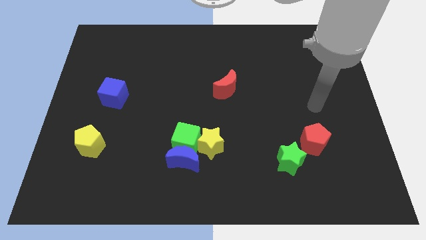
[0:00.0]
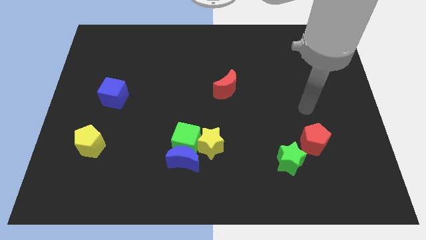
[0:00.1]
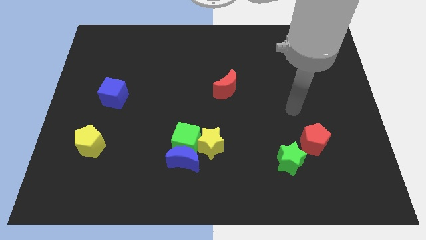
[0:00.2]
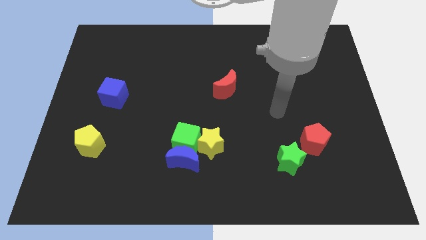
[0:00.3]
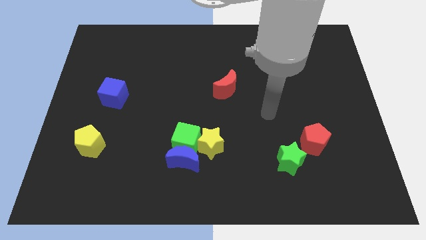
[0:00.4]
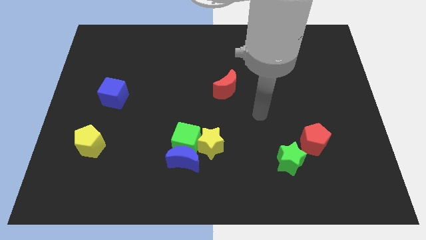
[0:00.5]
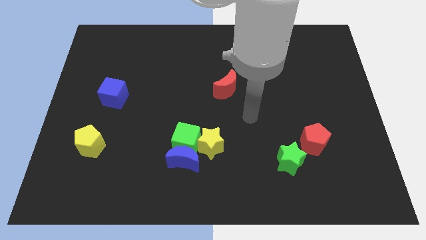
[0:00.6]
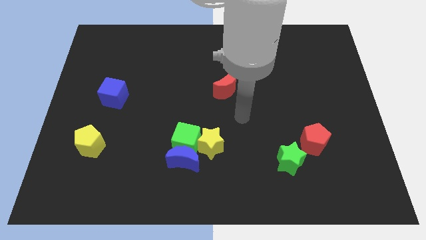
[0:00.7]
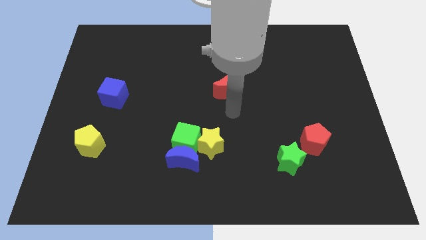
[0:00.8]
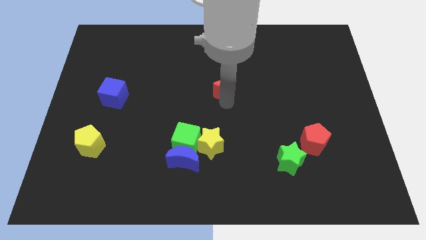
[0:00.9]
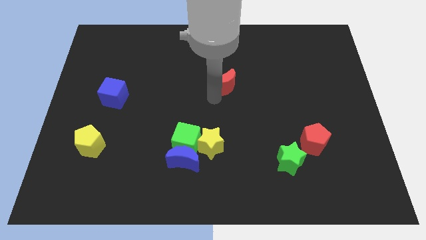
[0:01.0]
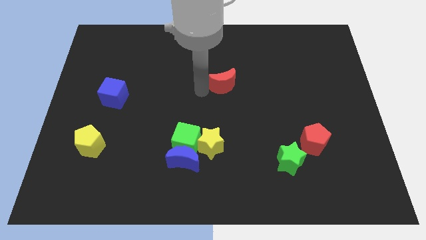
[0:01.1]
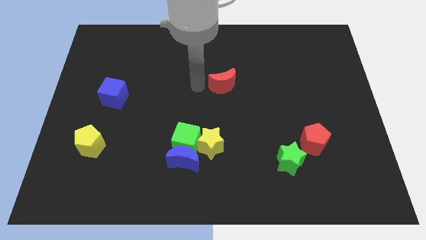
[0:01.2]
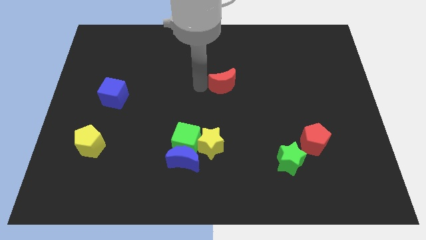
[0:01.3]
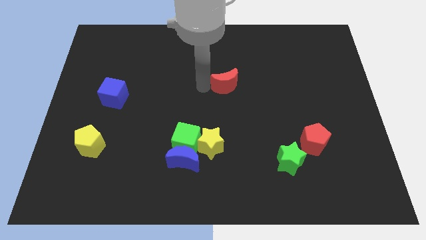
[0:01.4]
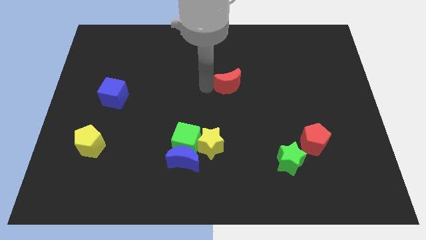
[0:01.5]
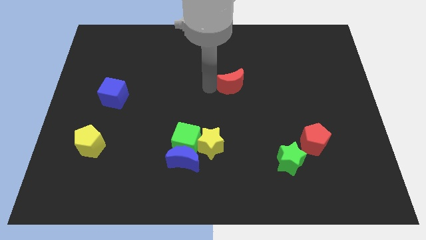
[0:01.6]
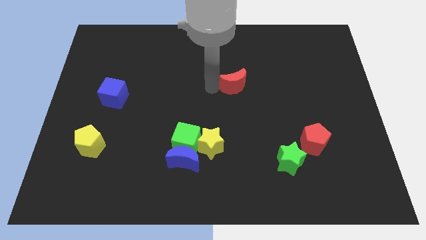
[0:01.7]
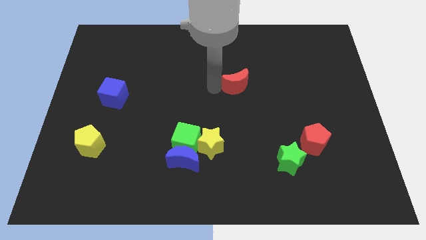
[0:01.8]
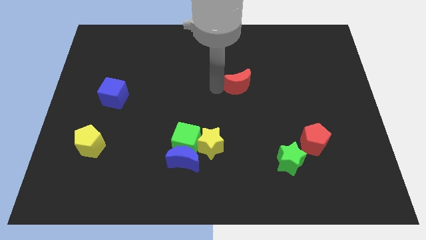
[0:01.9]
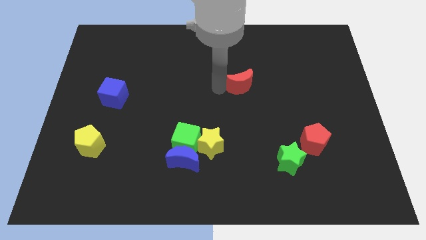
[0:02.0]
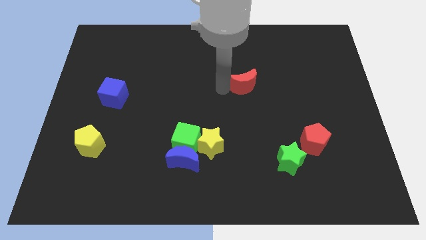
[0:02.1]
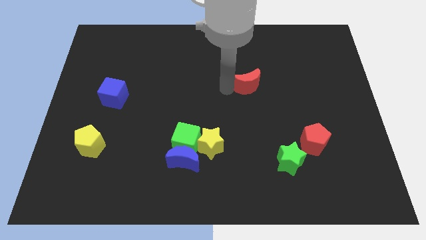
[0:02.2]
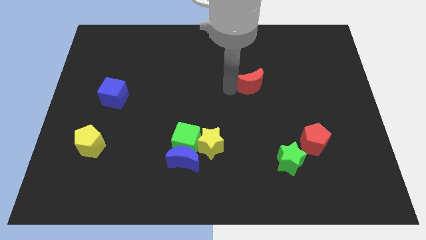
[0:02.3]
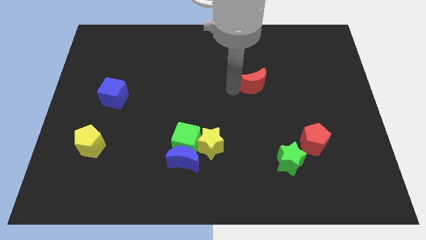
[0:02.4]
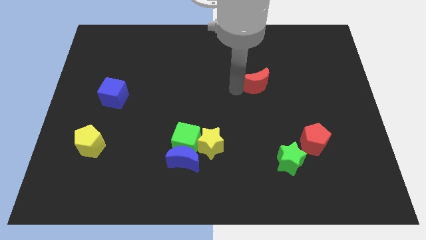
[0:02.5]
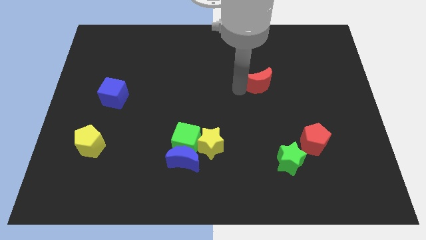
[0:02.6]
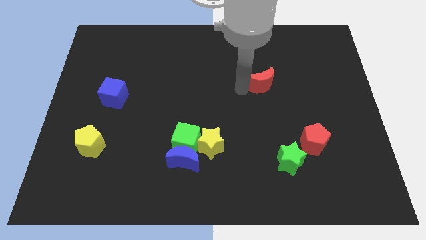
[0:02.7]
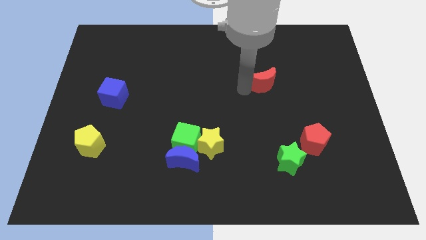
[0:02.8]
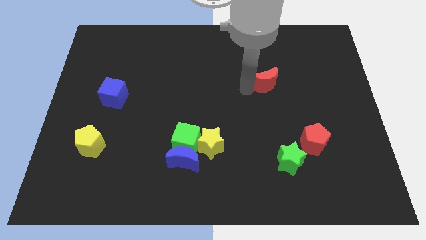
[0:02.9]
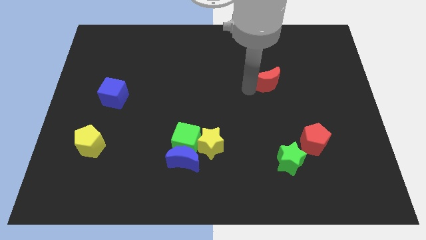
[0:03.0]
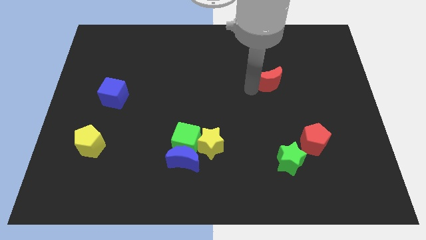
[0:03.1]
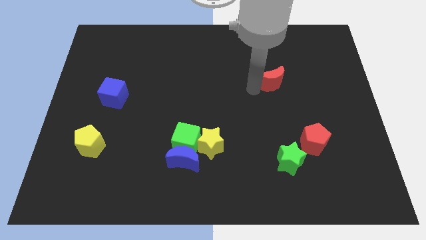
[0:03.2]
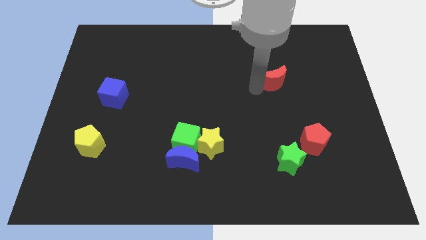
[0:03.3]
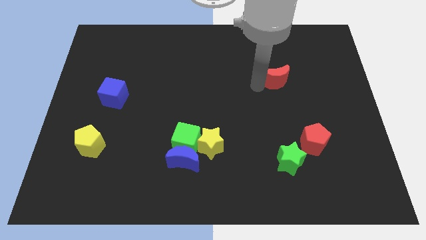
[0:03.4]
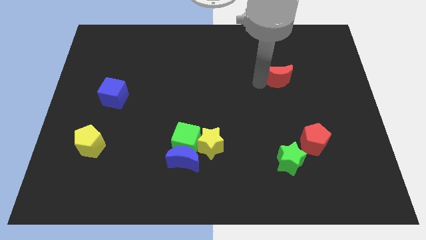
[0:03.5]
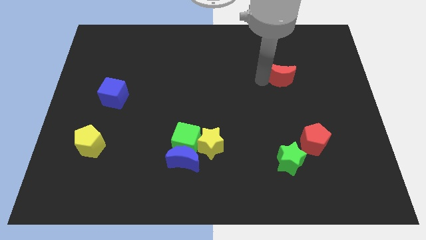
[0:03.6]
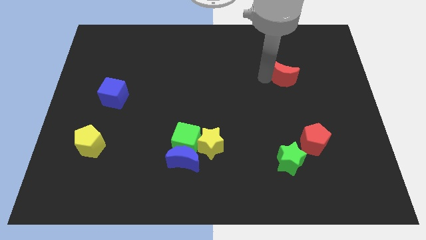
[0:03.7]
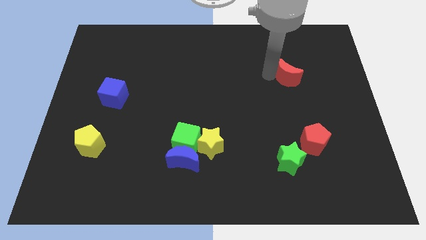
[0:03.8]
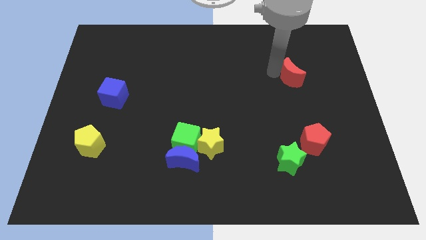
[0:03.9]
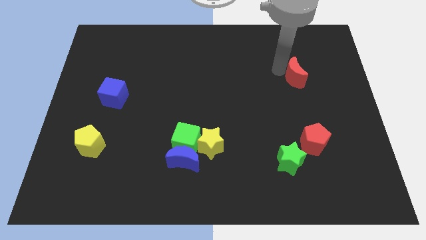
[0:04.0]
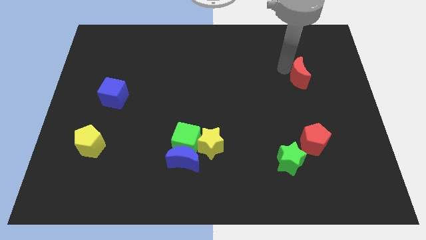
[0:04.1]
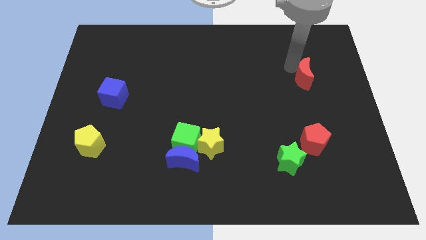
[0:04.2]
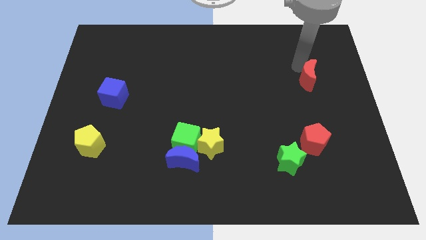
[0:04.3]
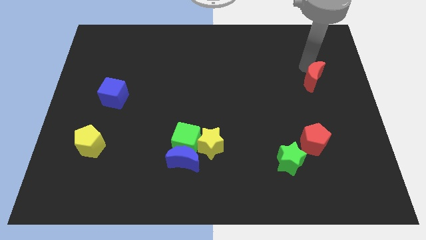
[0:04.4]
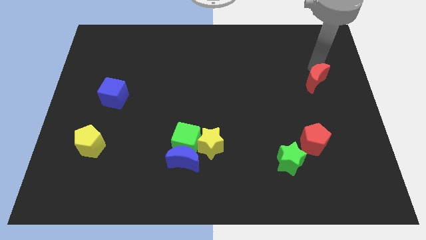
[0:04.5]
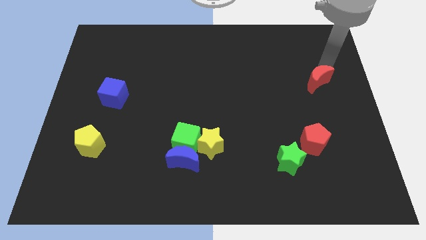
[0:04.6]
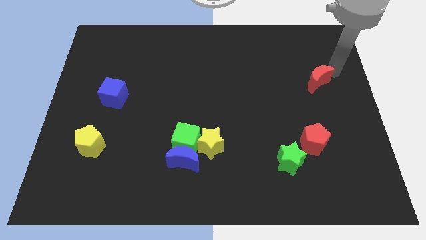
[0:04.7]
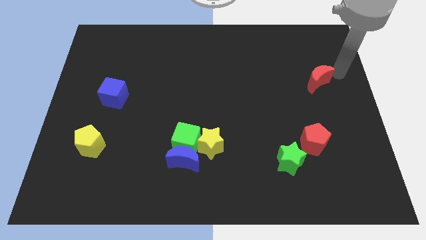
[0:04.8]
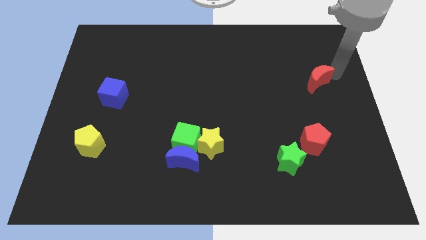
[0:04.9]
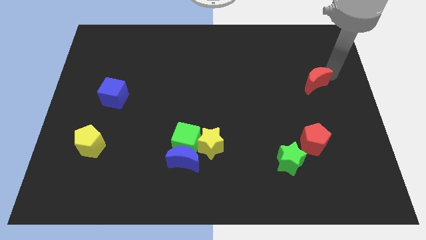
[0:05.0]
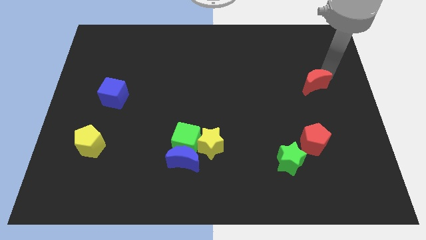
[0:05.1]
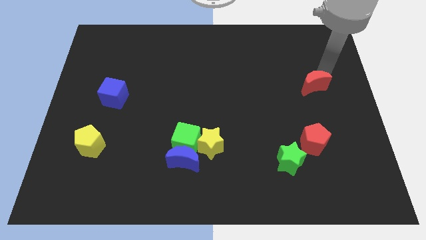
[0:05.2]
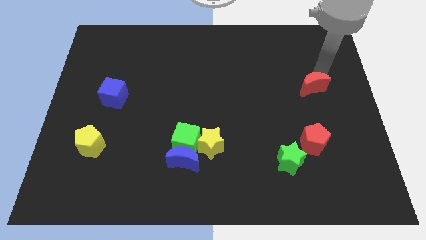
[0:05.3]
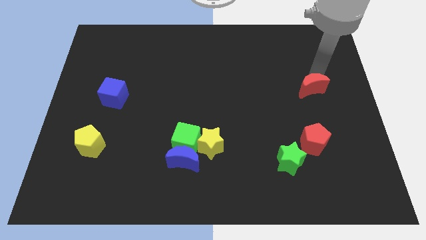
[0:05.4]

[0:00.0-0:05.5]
move the red moon to the top of the red pentagon

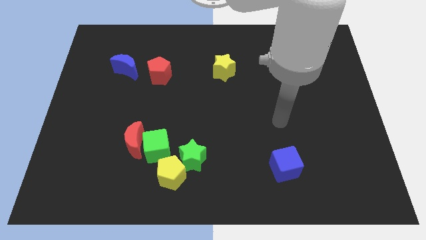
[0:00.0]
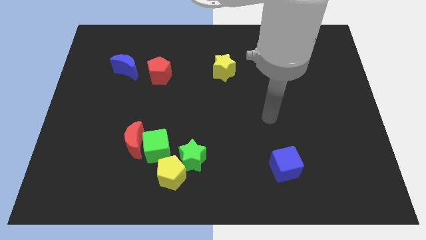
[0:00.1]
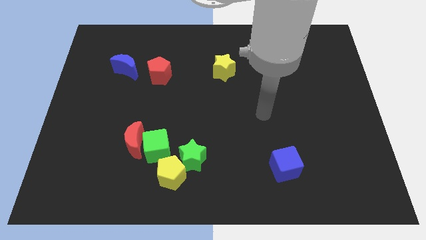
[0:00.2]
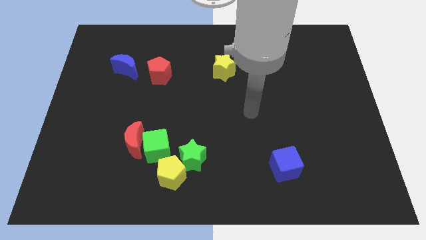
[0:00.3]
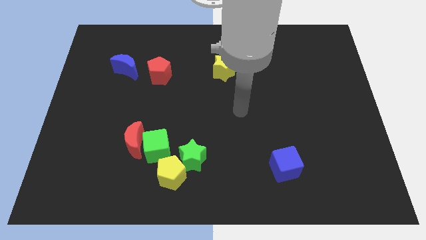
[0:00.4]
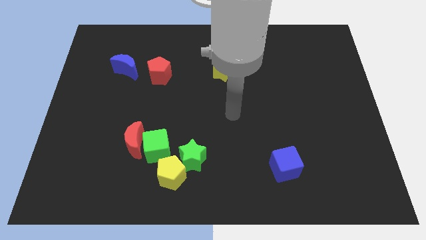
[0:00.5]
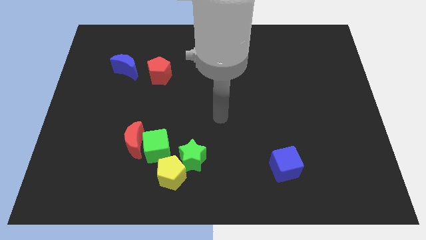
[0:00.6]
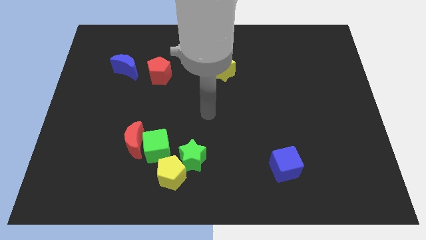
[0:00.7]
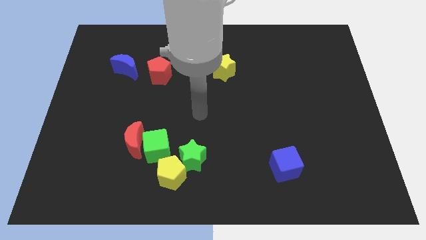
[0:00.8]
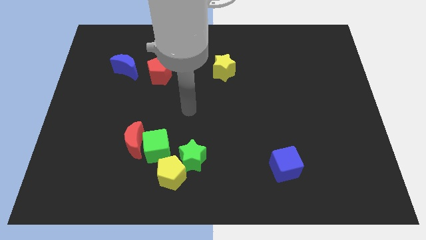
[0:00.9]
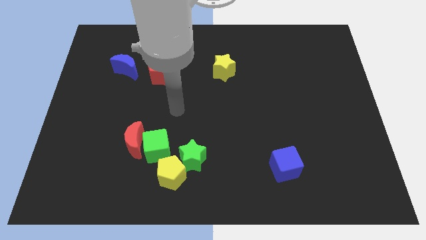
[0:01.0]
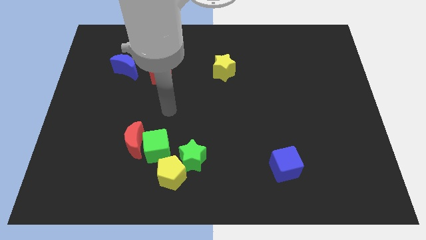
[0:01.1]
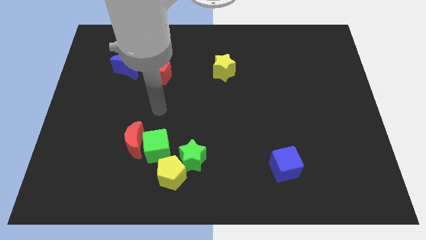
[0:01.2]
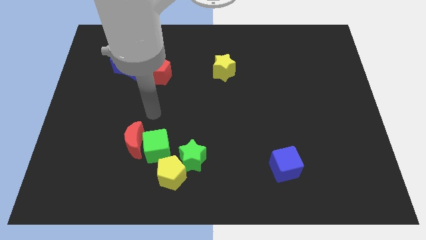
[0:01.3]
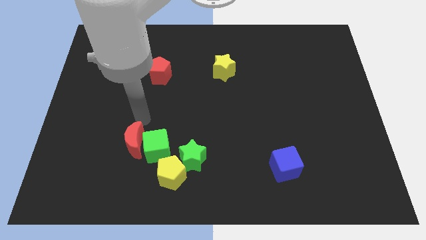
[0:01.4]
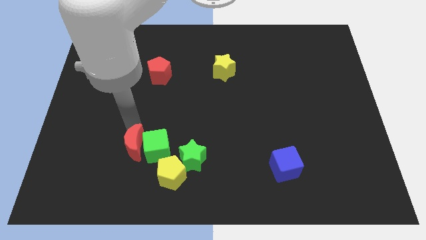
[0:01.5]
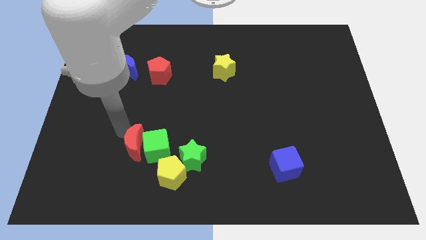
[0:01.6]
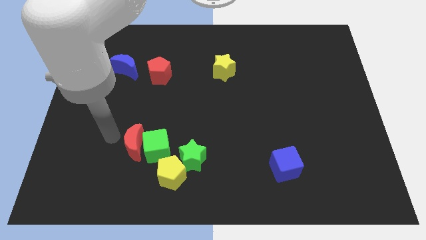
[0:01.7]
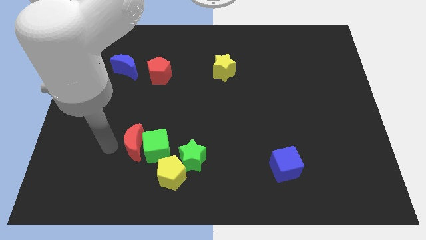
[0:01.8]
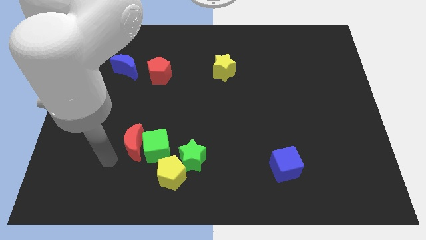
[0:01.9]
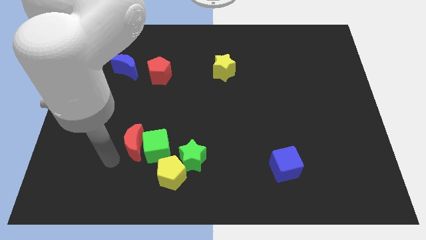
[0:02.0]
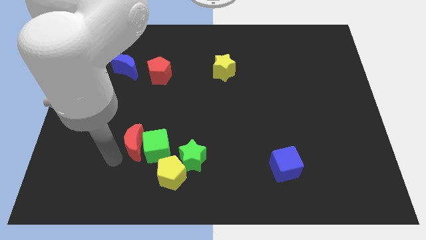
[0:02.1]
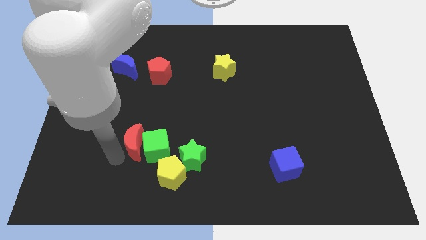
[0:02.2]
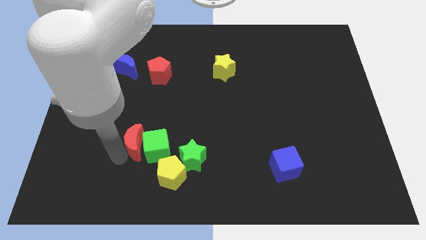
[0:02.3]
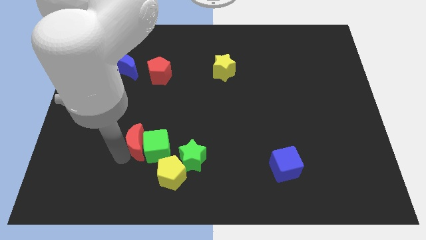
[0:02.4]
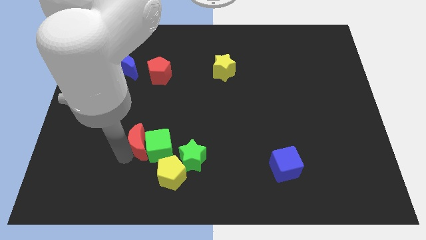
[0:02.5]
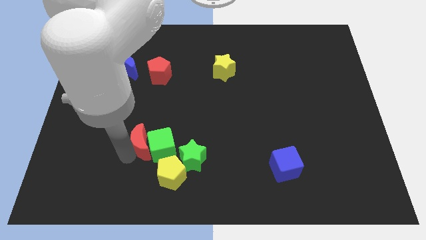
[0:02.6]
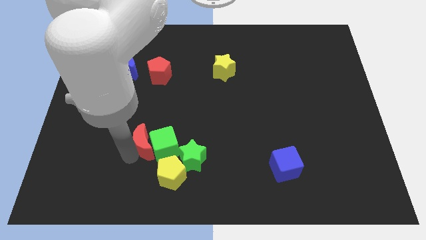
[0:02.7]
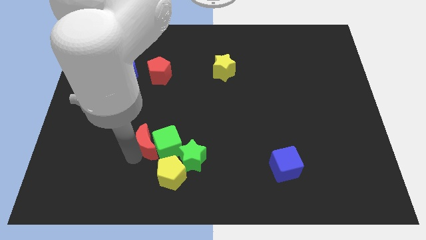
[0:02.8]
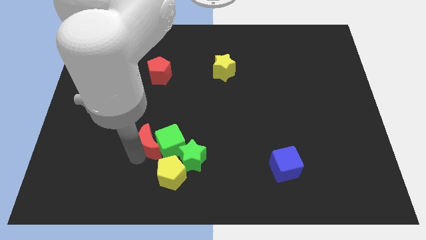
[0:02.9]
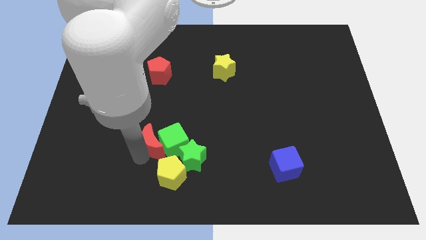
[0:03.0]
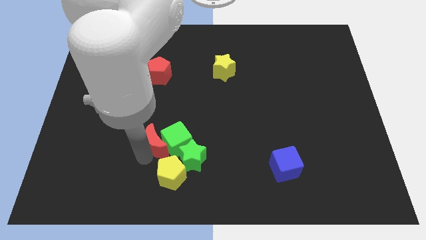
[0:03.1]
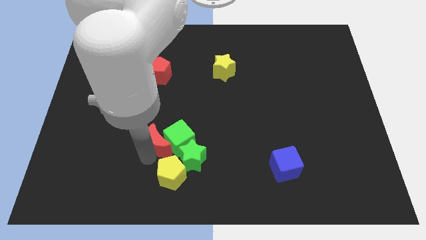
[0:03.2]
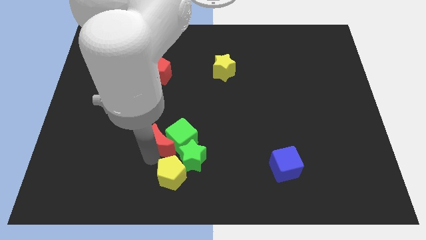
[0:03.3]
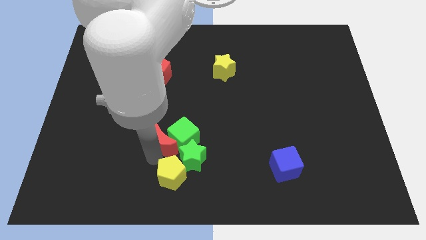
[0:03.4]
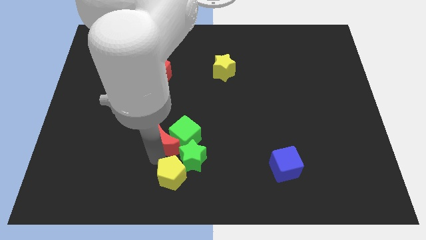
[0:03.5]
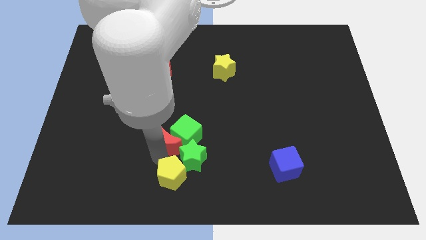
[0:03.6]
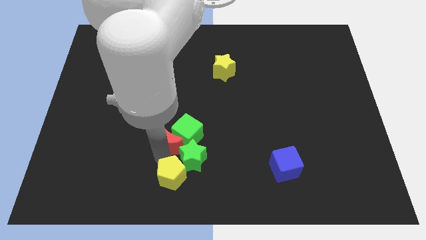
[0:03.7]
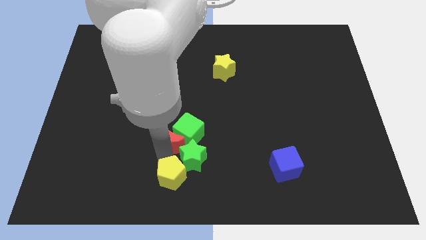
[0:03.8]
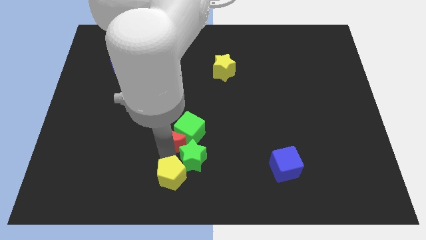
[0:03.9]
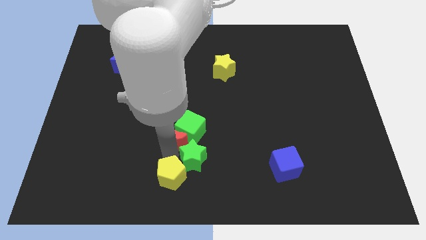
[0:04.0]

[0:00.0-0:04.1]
move the red moon to the top of the green star
